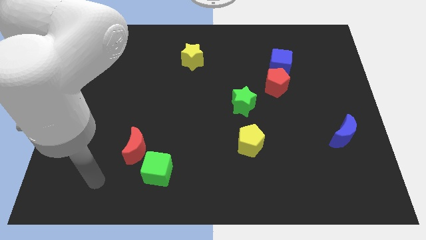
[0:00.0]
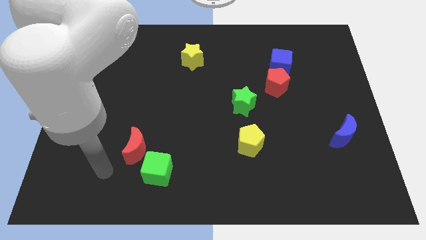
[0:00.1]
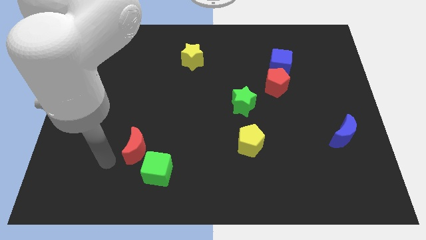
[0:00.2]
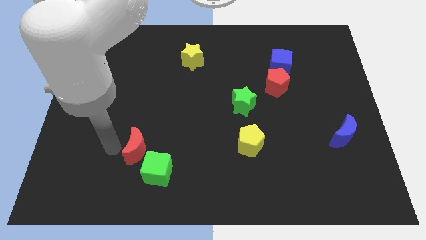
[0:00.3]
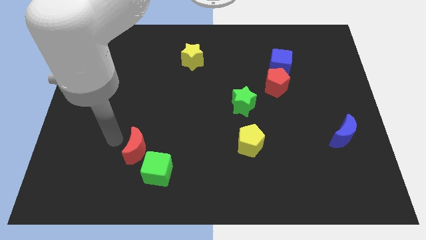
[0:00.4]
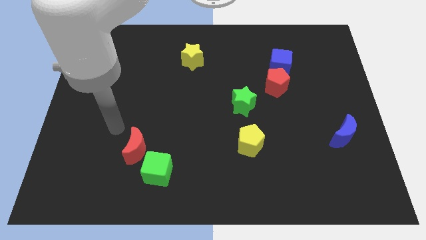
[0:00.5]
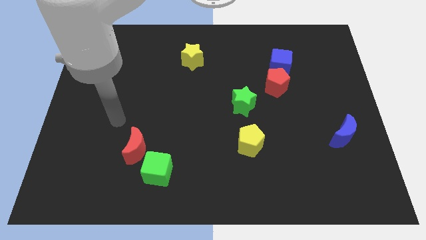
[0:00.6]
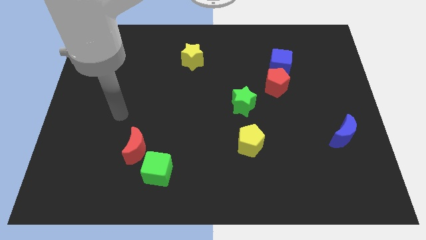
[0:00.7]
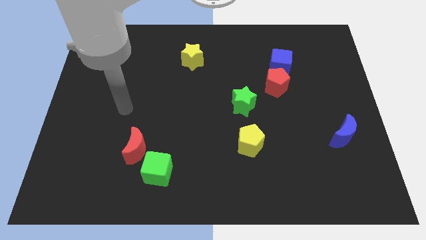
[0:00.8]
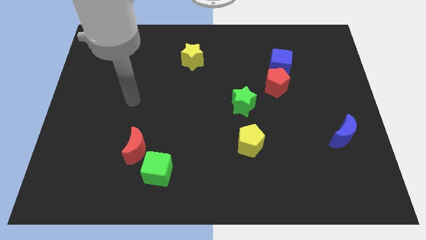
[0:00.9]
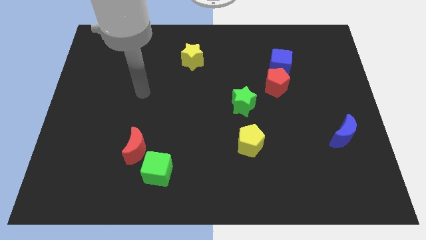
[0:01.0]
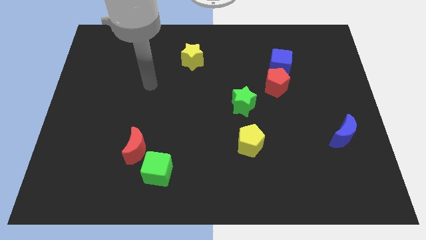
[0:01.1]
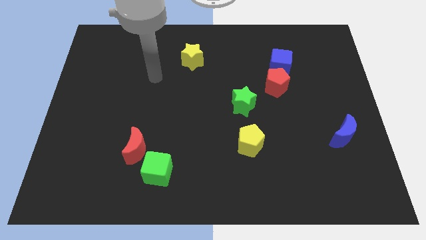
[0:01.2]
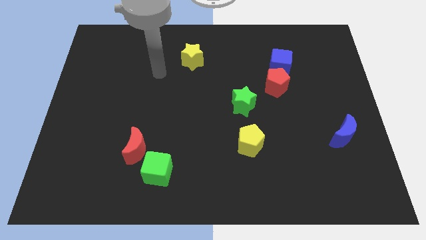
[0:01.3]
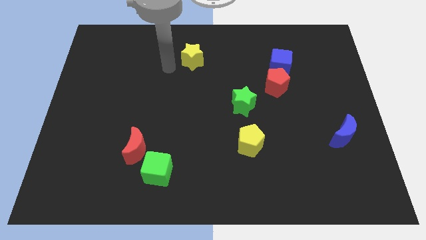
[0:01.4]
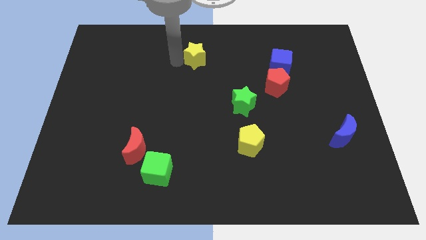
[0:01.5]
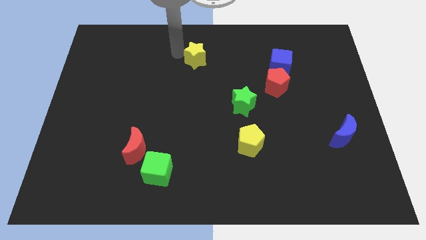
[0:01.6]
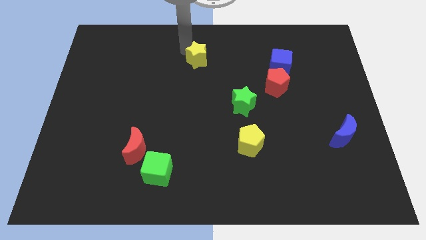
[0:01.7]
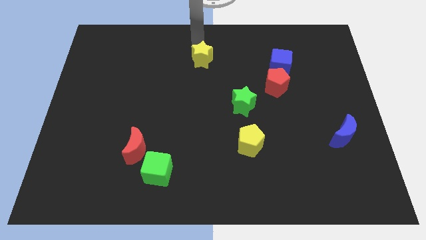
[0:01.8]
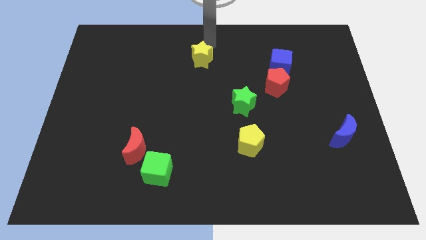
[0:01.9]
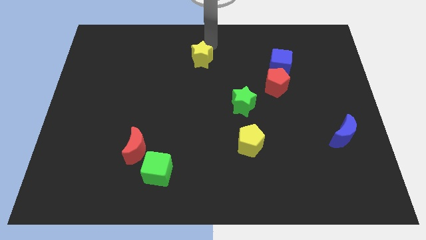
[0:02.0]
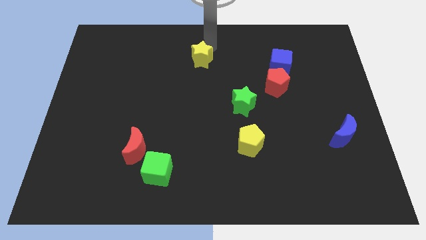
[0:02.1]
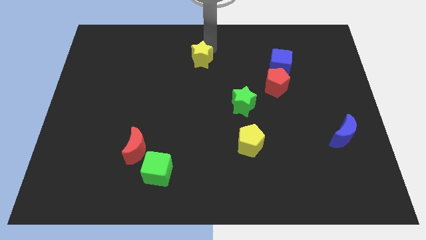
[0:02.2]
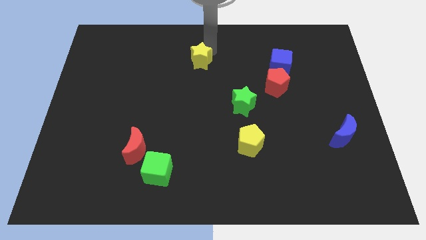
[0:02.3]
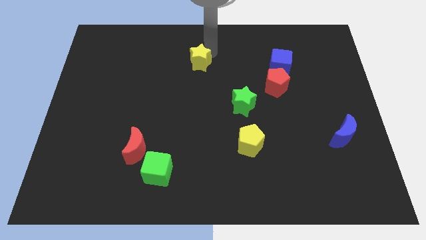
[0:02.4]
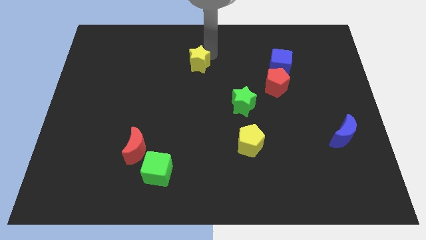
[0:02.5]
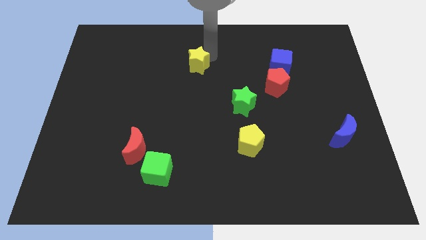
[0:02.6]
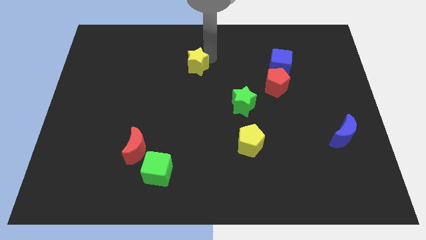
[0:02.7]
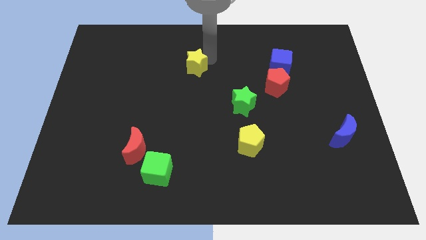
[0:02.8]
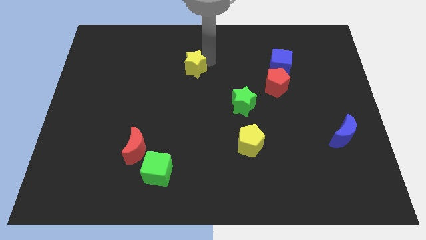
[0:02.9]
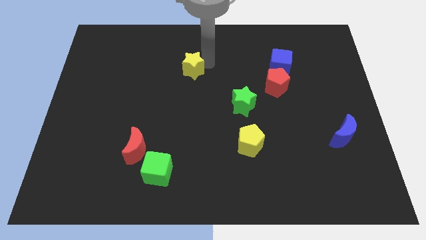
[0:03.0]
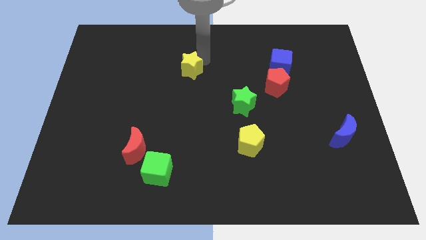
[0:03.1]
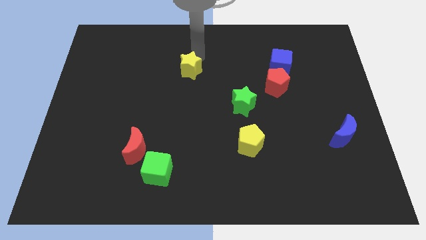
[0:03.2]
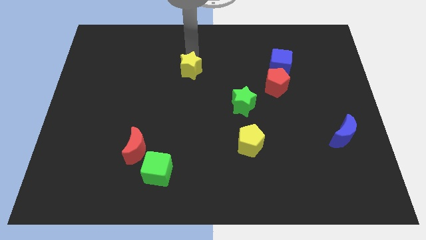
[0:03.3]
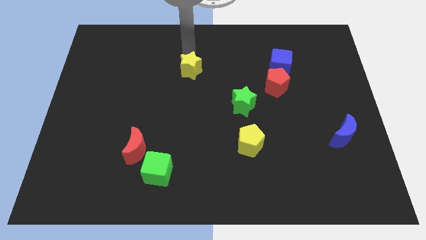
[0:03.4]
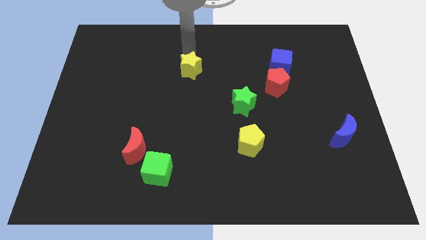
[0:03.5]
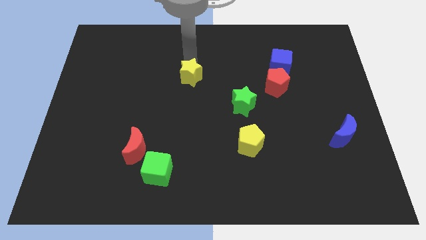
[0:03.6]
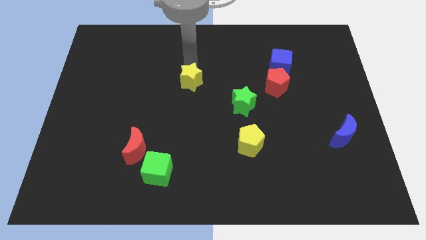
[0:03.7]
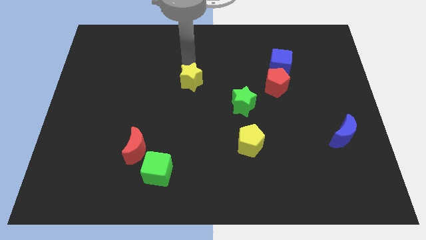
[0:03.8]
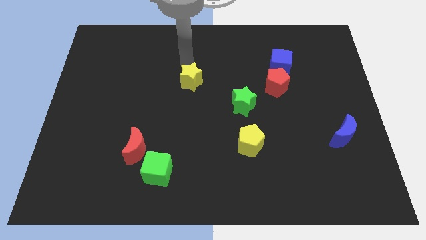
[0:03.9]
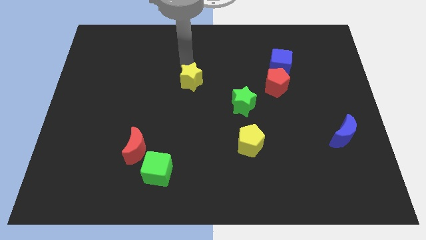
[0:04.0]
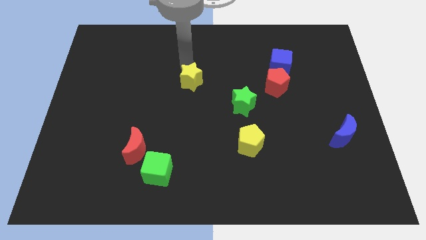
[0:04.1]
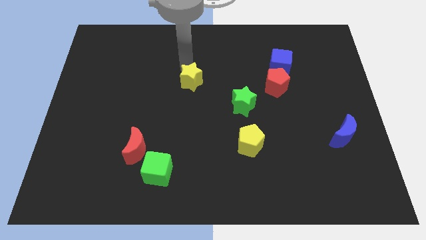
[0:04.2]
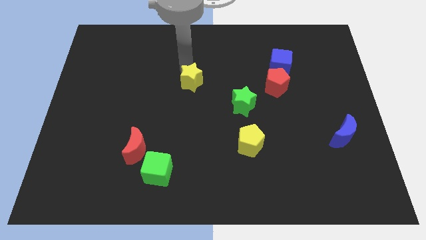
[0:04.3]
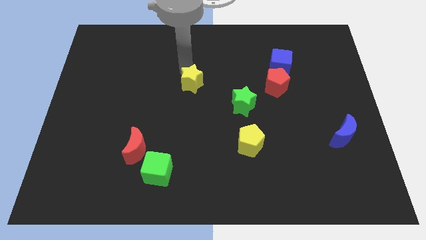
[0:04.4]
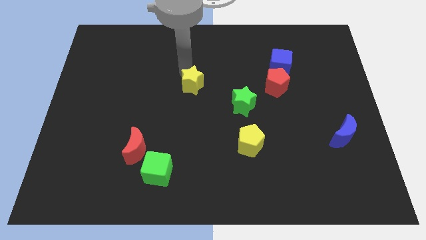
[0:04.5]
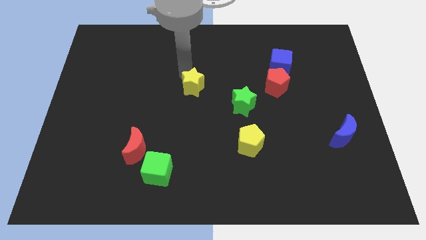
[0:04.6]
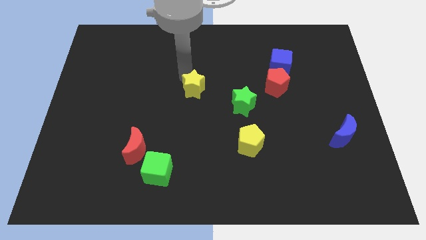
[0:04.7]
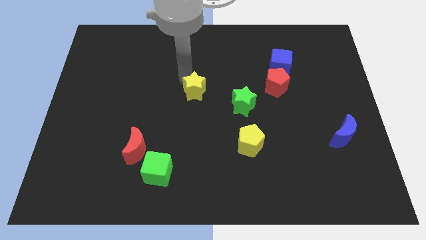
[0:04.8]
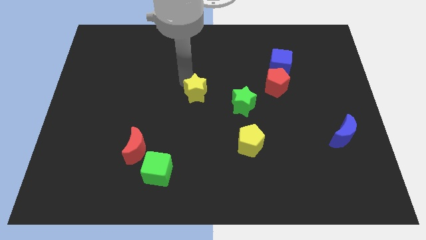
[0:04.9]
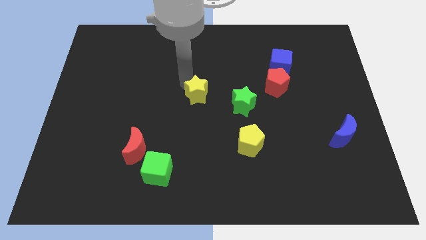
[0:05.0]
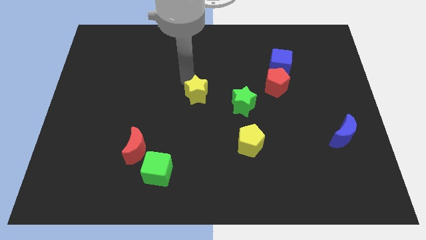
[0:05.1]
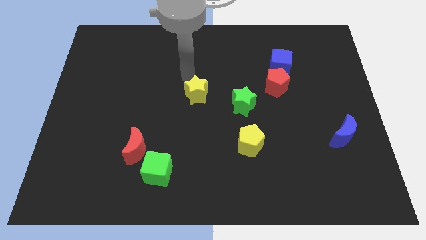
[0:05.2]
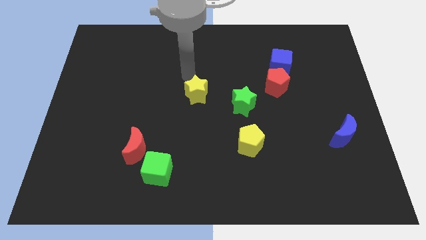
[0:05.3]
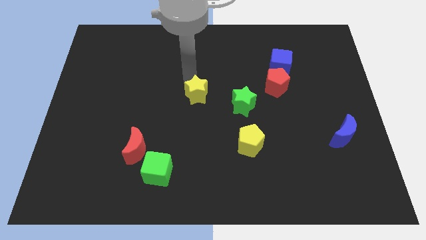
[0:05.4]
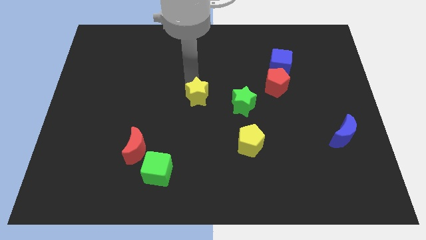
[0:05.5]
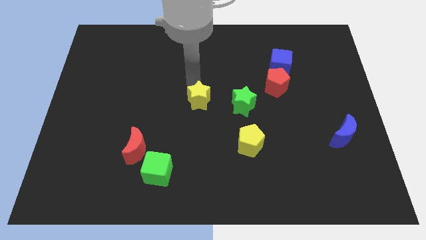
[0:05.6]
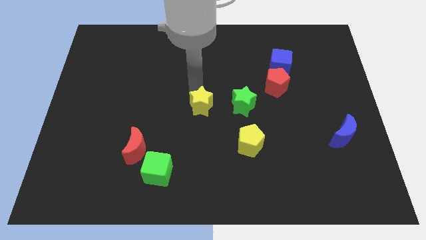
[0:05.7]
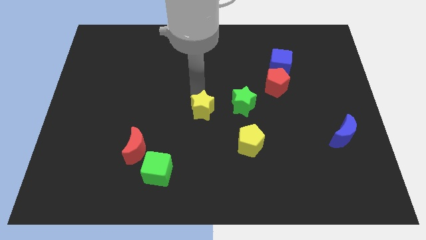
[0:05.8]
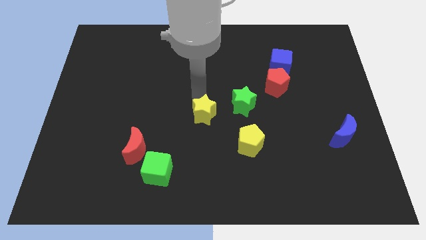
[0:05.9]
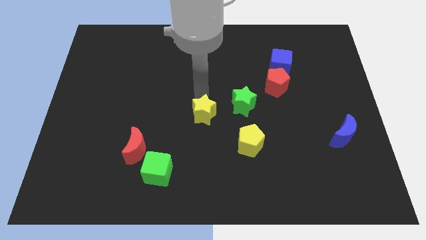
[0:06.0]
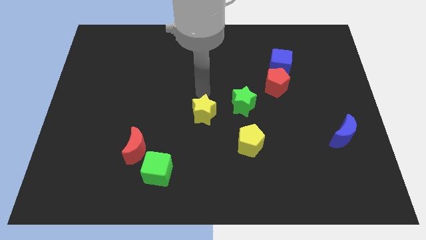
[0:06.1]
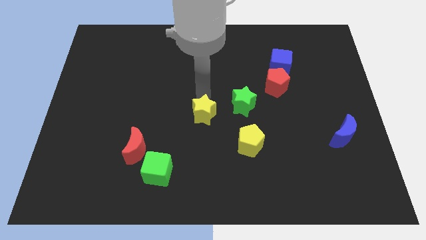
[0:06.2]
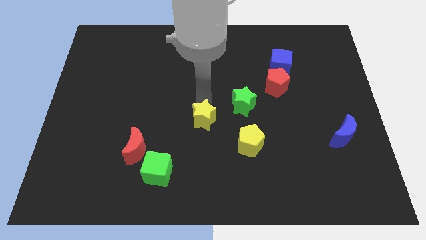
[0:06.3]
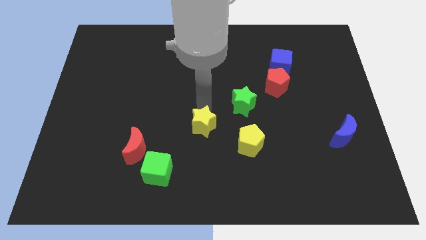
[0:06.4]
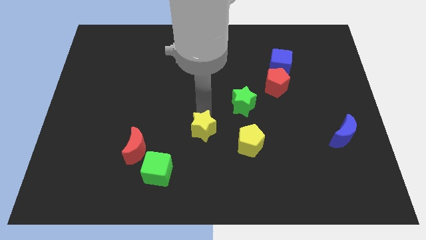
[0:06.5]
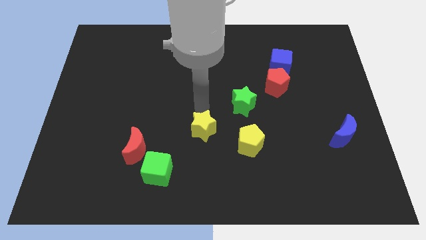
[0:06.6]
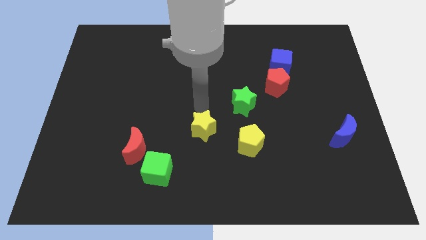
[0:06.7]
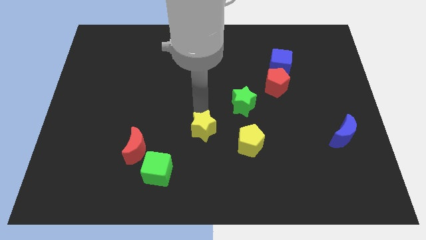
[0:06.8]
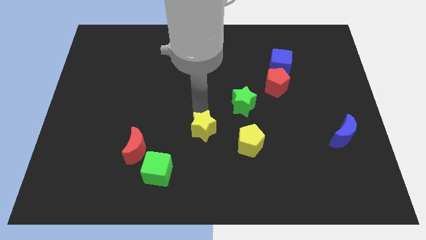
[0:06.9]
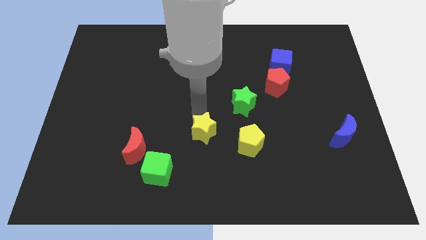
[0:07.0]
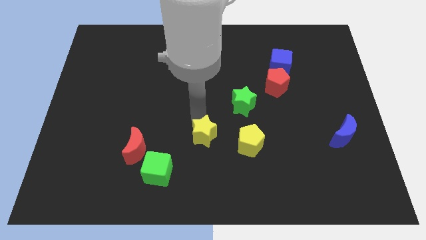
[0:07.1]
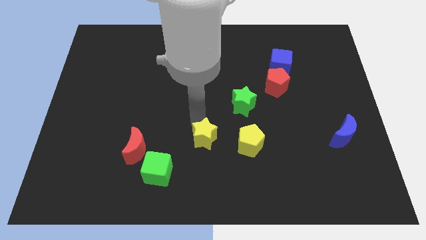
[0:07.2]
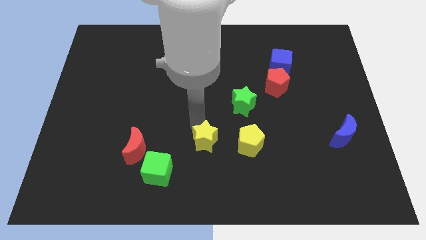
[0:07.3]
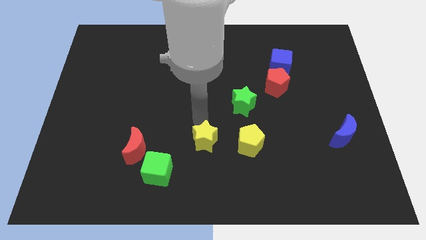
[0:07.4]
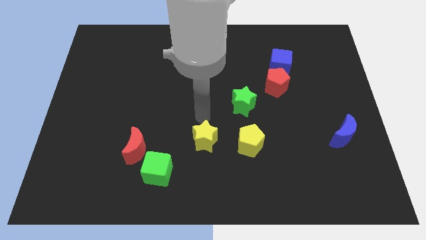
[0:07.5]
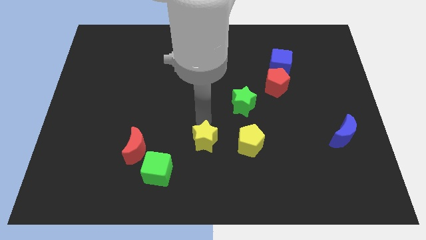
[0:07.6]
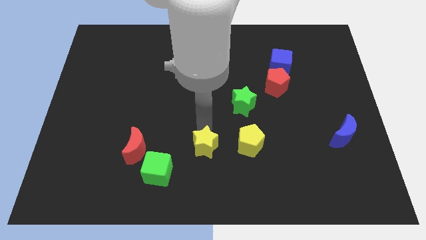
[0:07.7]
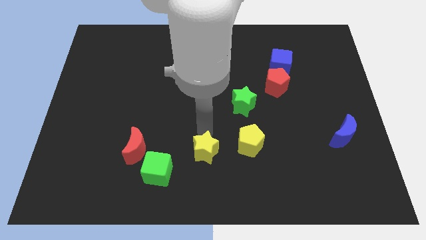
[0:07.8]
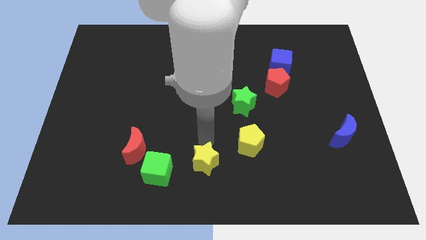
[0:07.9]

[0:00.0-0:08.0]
push the yellow star to the bottom side
